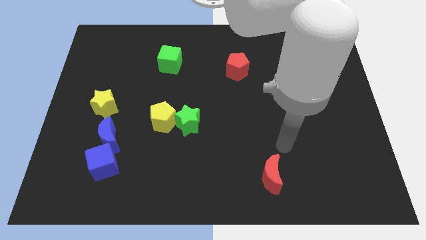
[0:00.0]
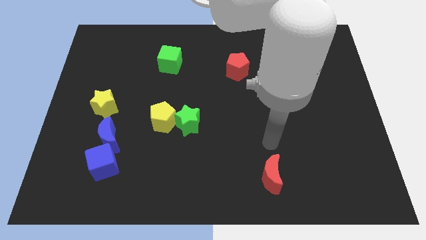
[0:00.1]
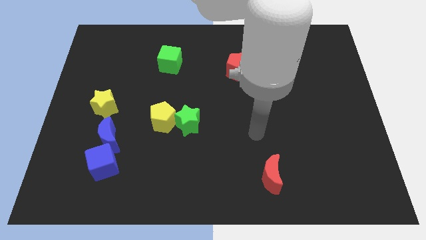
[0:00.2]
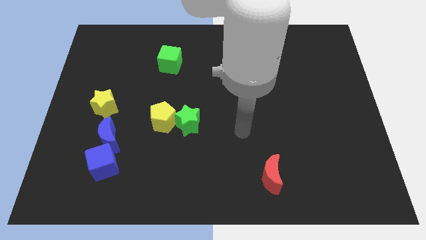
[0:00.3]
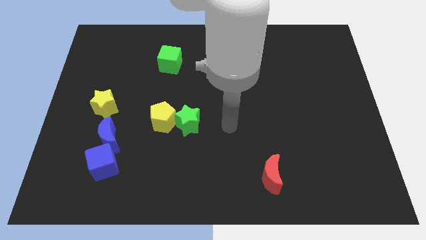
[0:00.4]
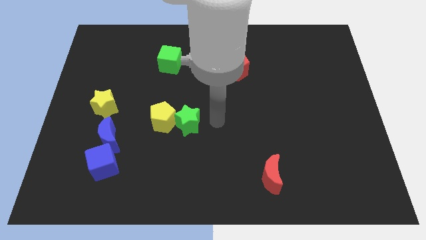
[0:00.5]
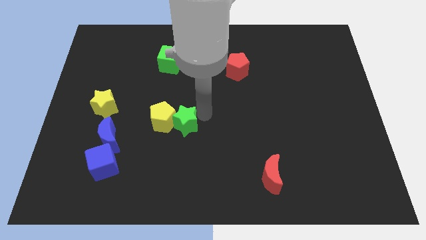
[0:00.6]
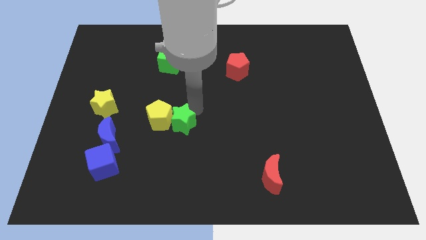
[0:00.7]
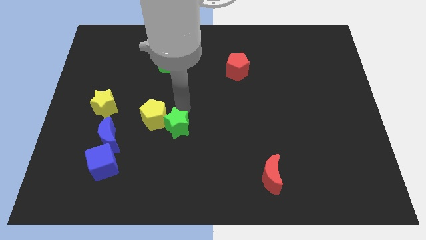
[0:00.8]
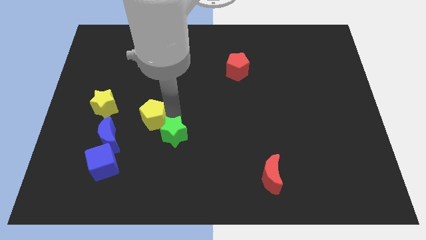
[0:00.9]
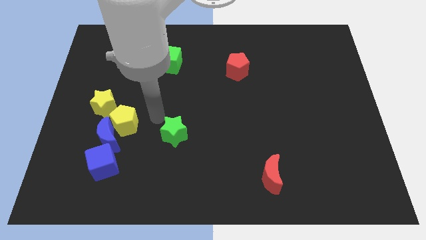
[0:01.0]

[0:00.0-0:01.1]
separate the green star from the yellow pentagon

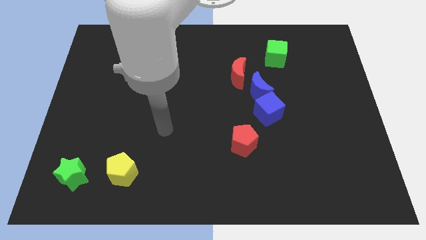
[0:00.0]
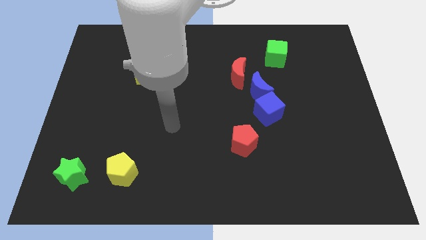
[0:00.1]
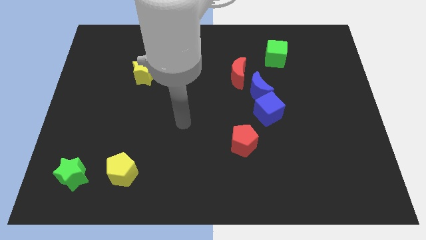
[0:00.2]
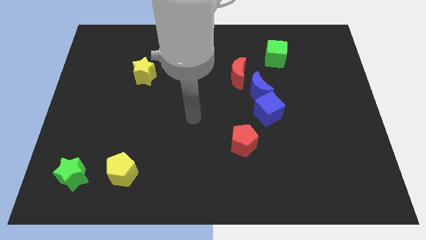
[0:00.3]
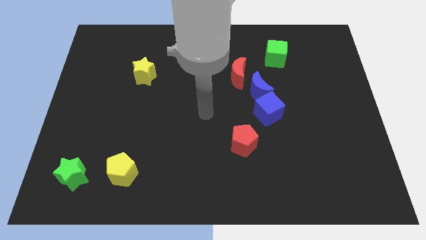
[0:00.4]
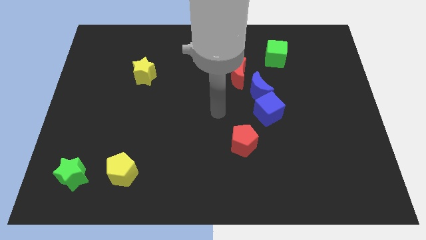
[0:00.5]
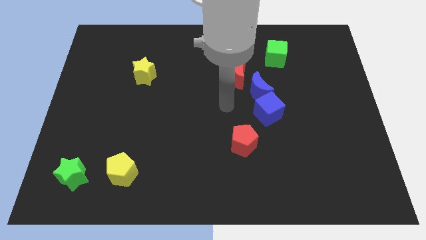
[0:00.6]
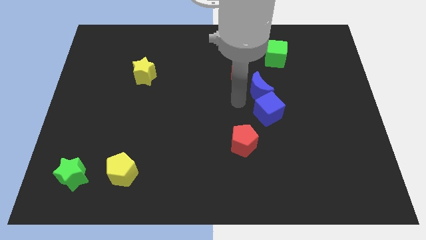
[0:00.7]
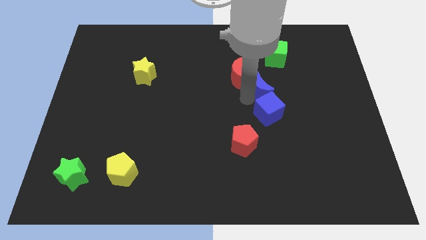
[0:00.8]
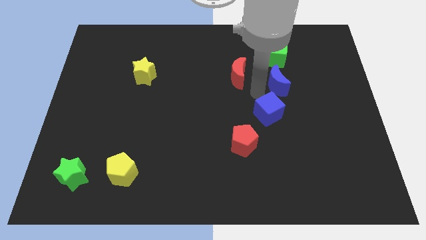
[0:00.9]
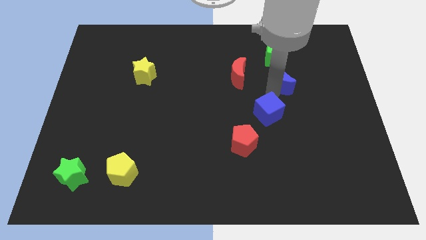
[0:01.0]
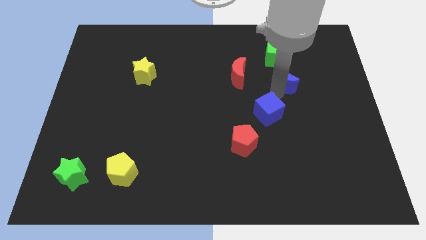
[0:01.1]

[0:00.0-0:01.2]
move the blue cube away from the blue moon

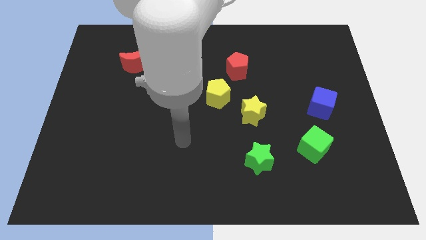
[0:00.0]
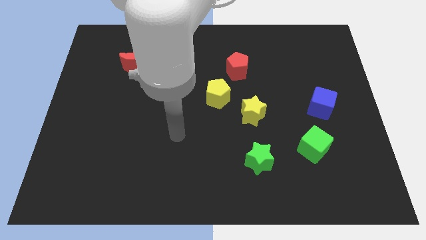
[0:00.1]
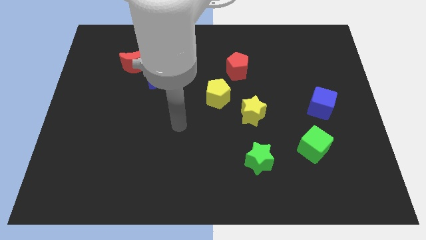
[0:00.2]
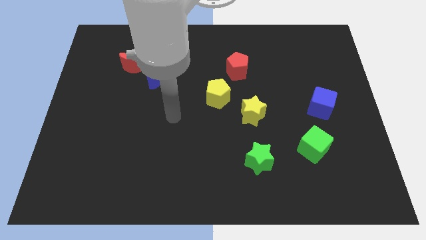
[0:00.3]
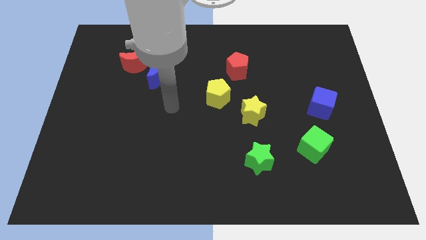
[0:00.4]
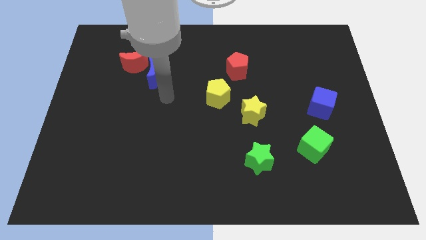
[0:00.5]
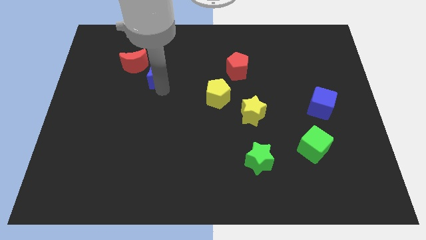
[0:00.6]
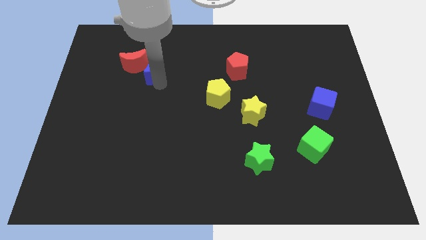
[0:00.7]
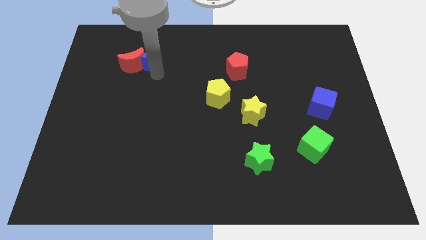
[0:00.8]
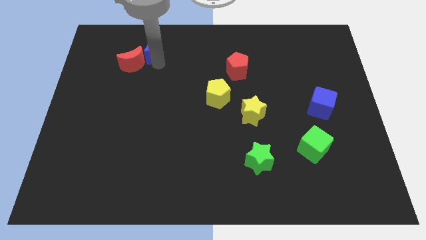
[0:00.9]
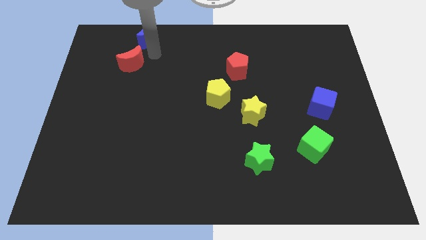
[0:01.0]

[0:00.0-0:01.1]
pull the red moon apart from the blue moon

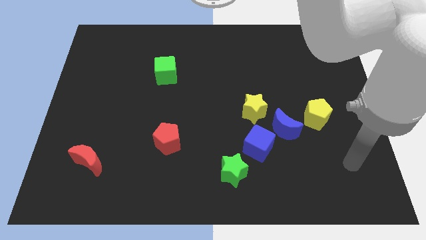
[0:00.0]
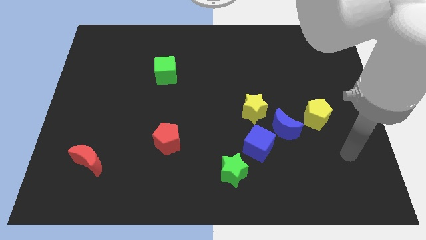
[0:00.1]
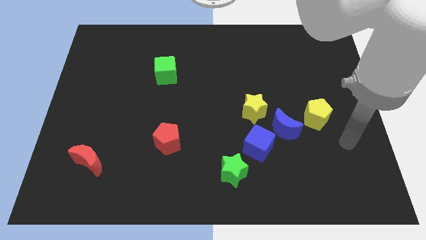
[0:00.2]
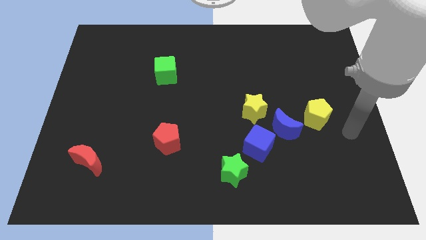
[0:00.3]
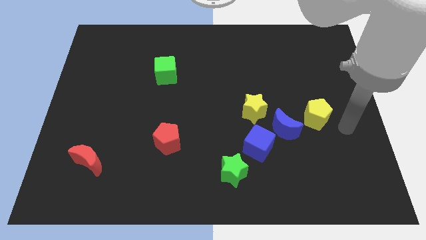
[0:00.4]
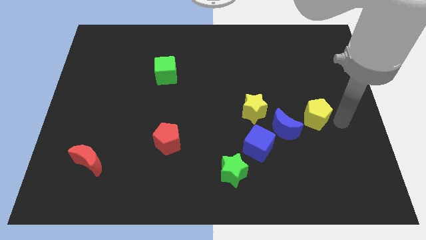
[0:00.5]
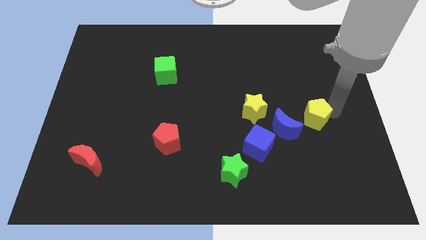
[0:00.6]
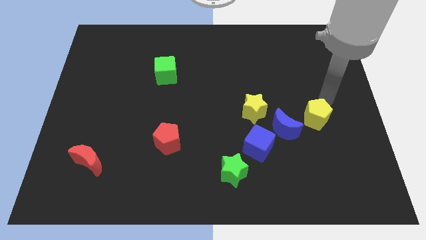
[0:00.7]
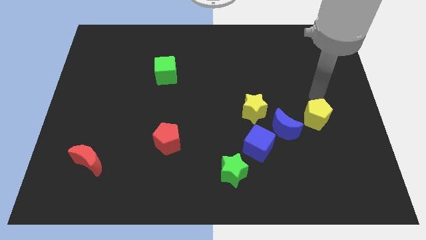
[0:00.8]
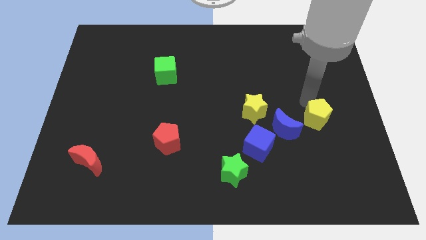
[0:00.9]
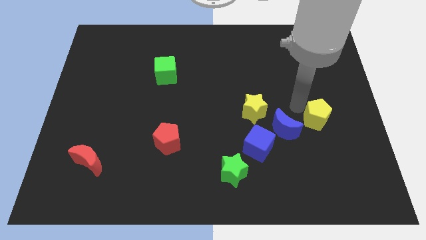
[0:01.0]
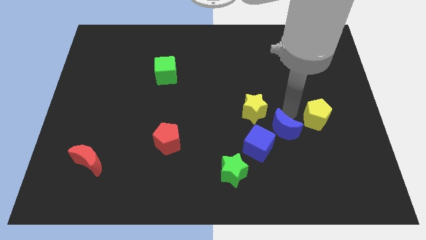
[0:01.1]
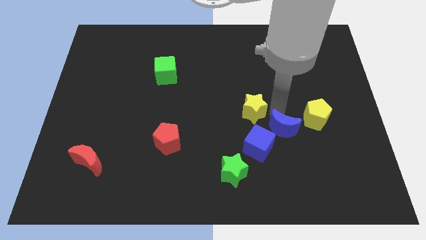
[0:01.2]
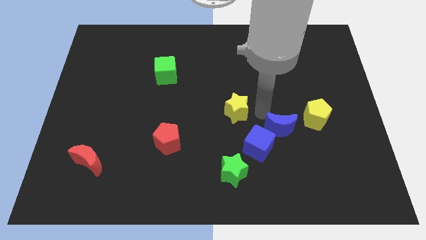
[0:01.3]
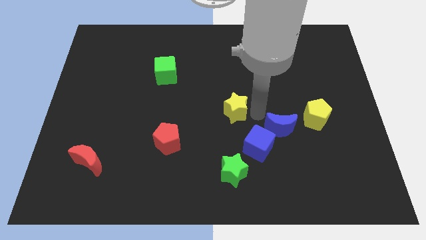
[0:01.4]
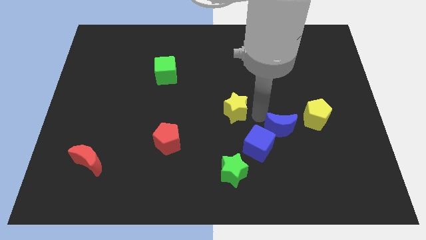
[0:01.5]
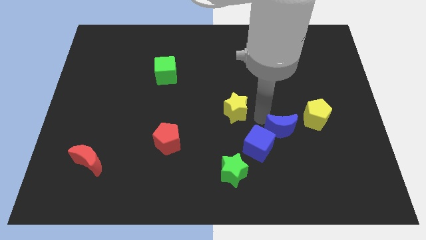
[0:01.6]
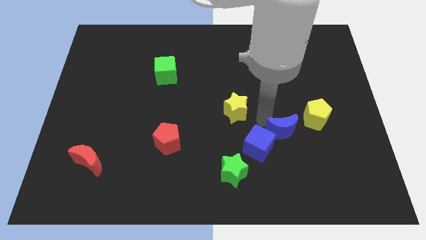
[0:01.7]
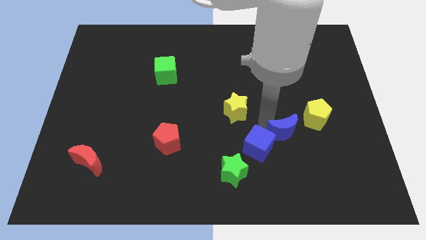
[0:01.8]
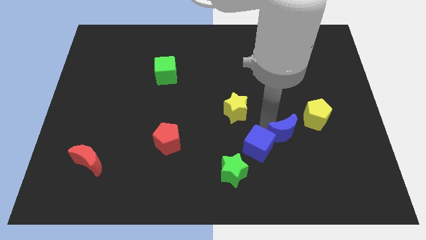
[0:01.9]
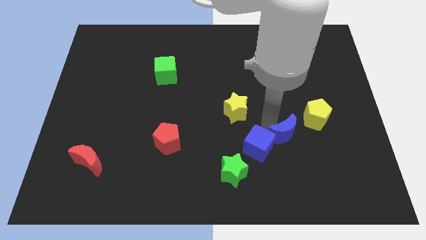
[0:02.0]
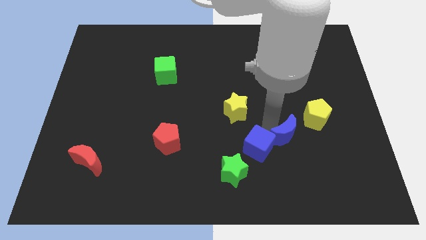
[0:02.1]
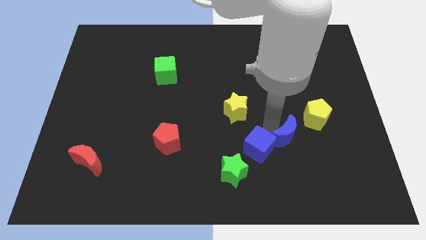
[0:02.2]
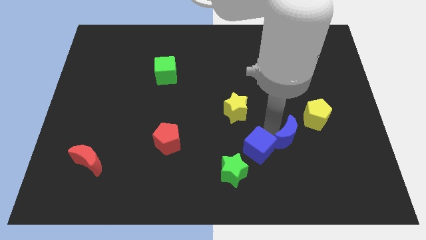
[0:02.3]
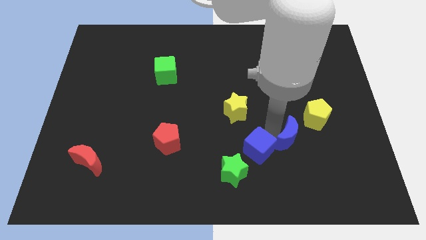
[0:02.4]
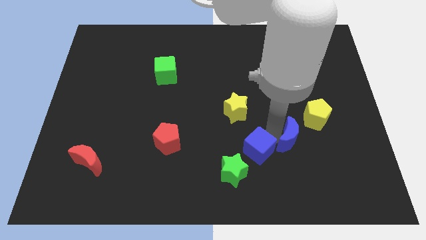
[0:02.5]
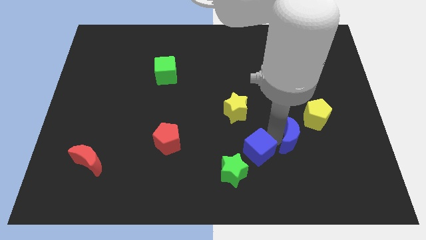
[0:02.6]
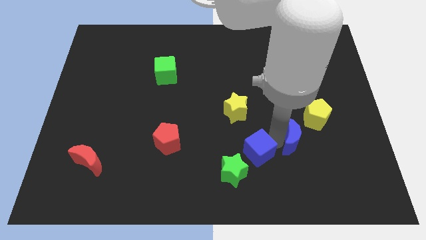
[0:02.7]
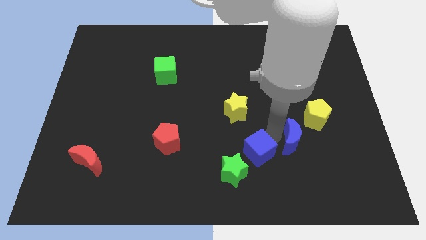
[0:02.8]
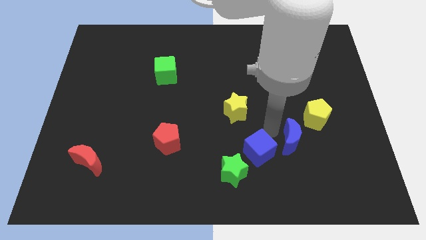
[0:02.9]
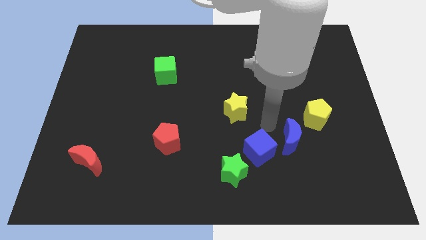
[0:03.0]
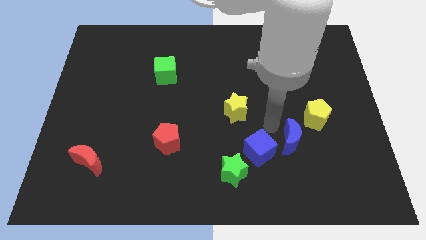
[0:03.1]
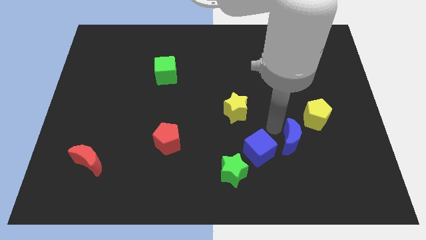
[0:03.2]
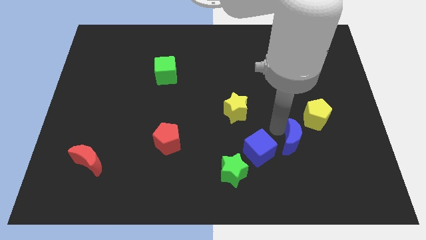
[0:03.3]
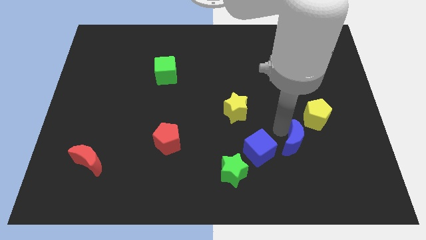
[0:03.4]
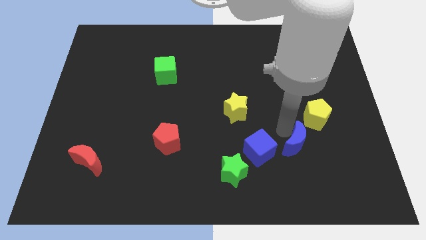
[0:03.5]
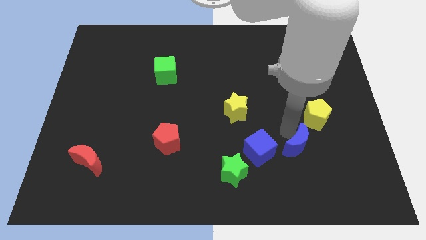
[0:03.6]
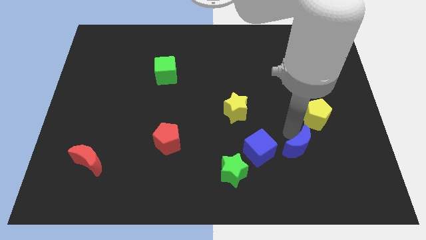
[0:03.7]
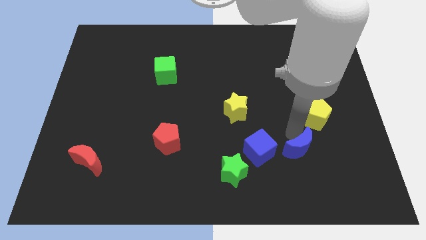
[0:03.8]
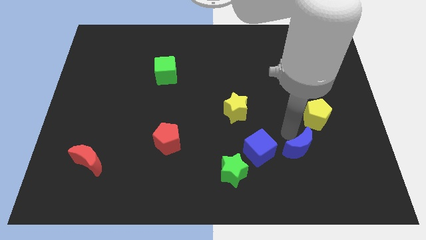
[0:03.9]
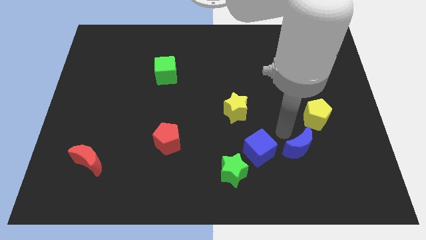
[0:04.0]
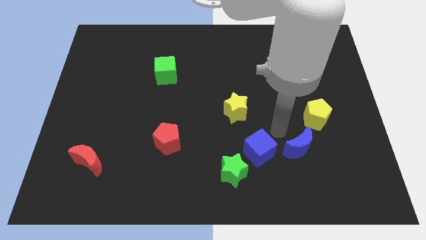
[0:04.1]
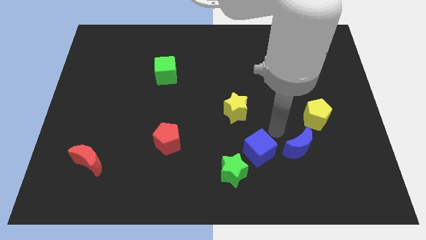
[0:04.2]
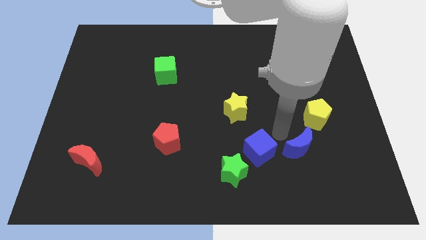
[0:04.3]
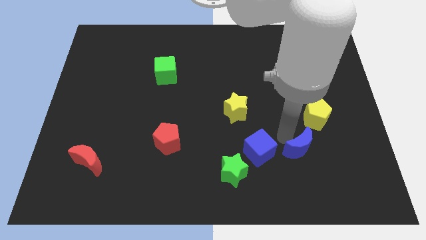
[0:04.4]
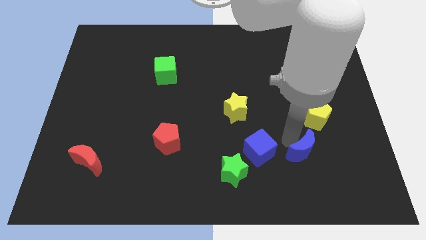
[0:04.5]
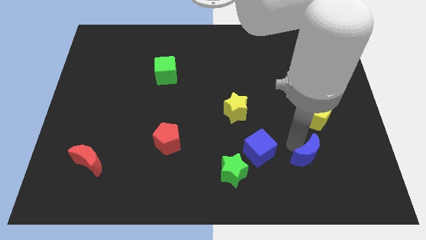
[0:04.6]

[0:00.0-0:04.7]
separate the blue moon from the clump

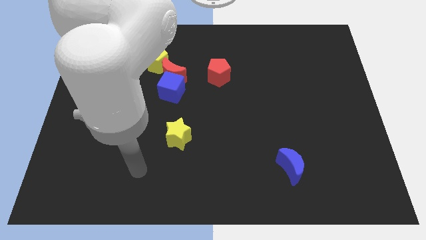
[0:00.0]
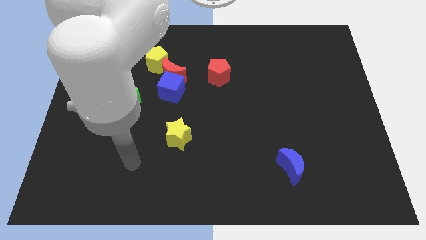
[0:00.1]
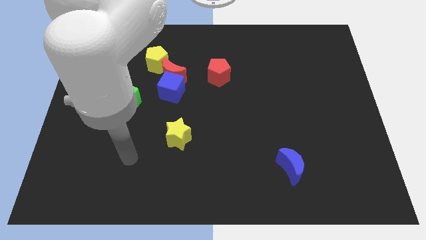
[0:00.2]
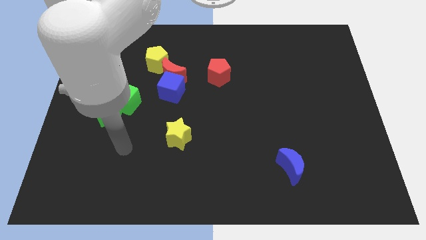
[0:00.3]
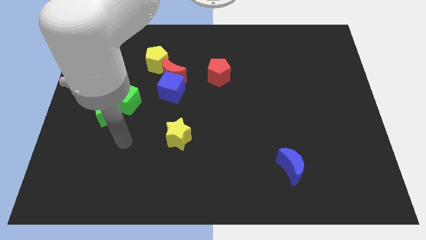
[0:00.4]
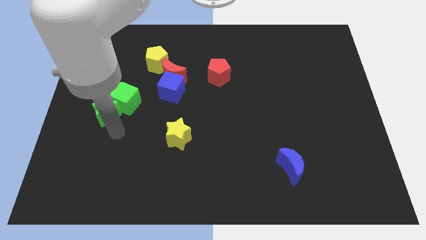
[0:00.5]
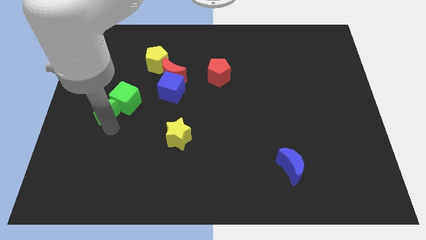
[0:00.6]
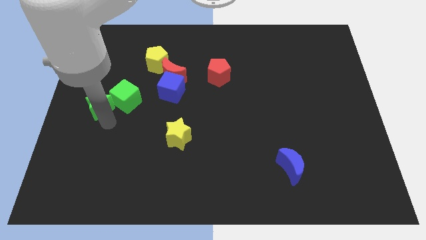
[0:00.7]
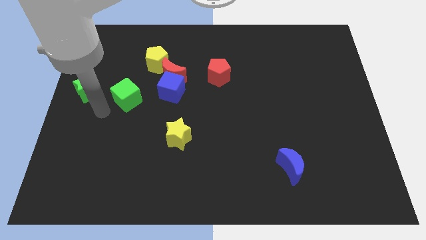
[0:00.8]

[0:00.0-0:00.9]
move the green cube away from the green star

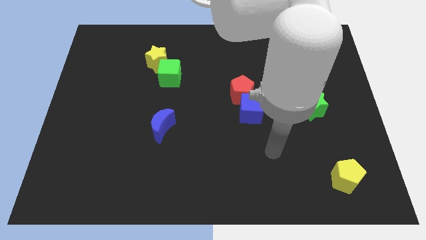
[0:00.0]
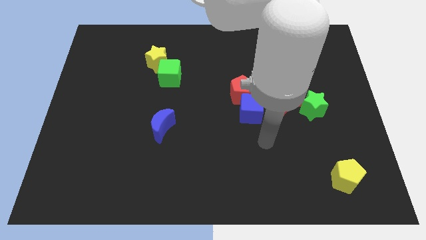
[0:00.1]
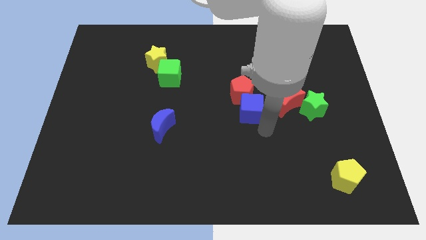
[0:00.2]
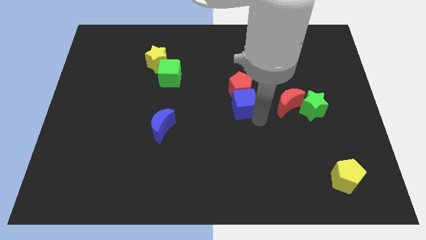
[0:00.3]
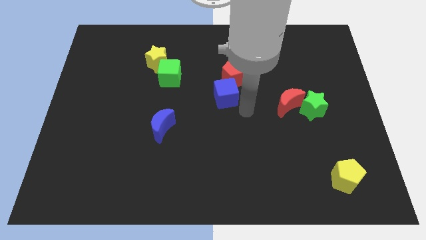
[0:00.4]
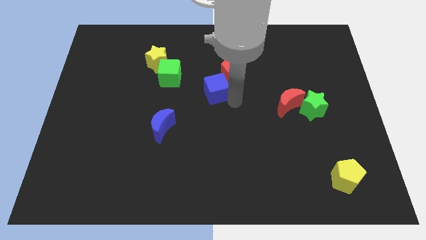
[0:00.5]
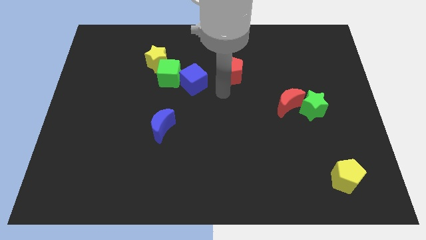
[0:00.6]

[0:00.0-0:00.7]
separate the red pentagon from the blue cube
